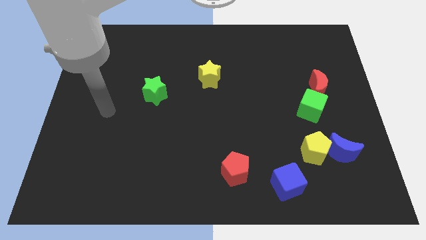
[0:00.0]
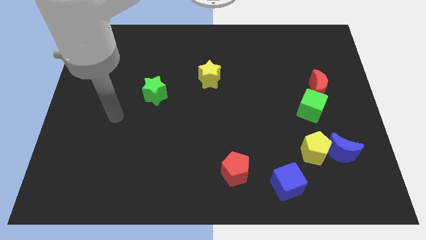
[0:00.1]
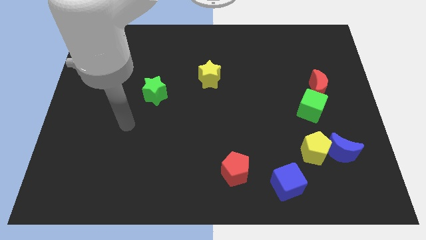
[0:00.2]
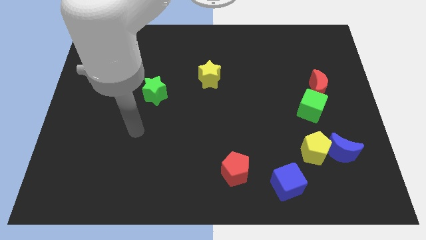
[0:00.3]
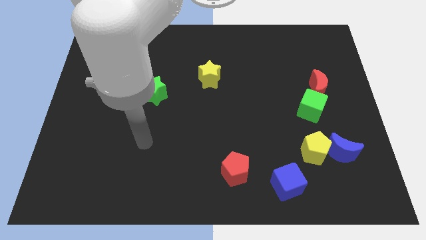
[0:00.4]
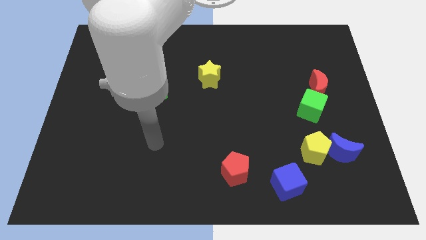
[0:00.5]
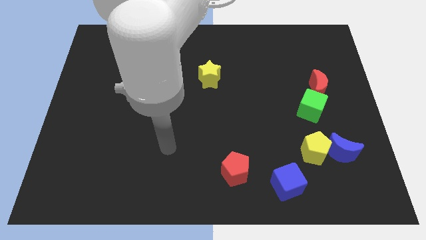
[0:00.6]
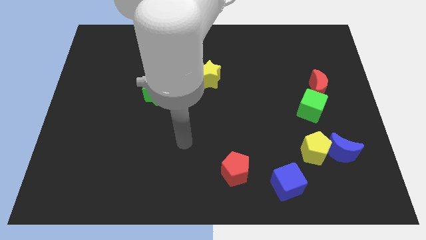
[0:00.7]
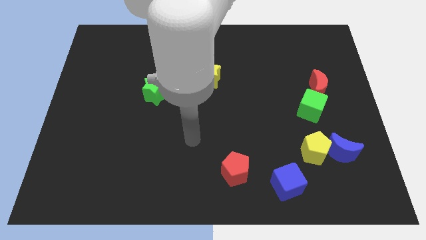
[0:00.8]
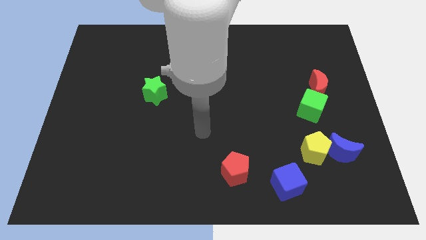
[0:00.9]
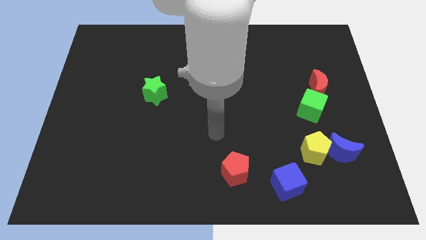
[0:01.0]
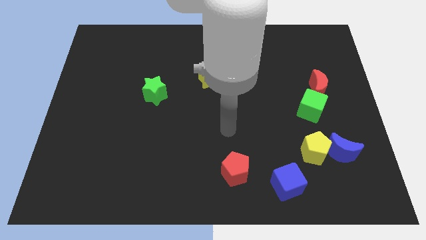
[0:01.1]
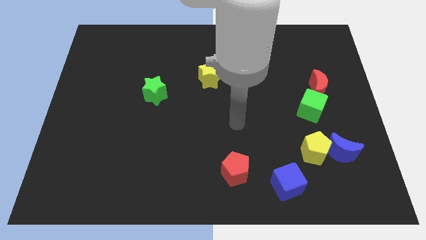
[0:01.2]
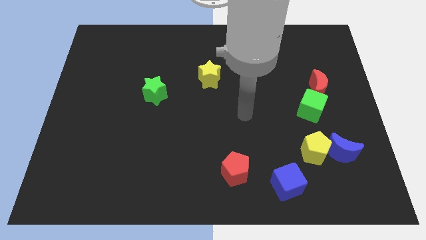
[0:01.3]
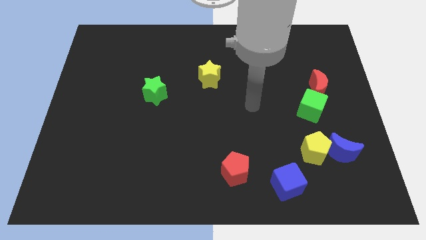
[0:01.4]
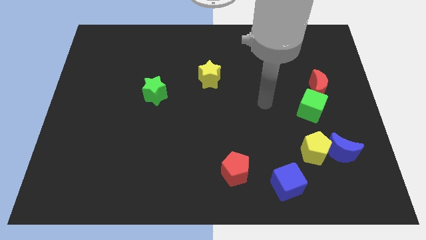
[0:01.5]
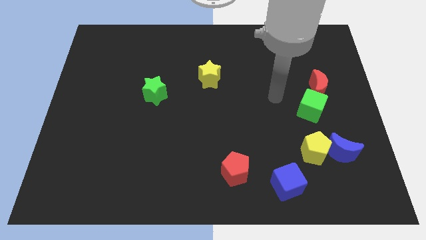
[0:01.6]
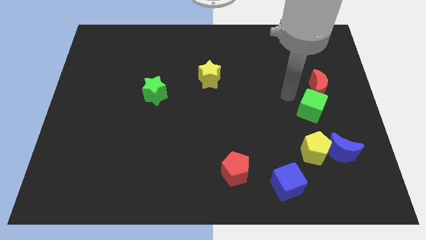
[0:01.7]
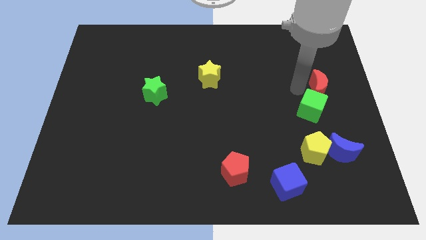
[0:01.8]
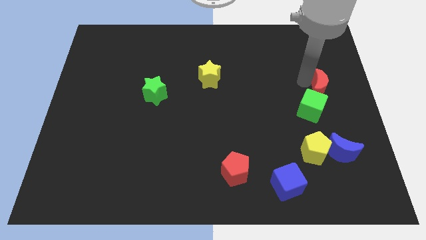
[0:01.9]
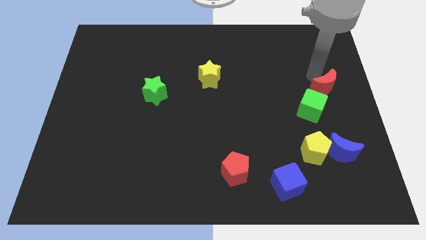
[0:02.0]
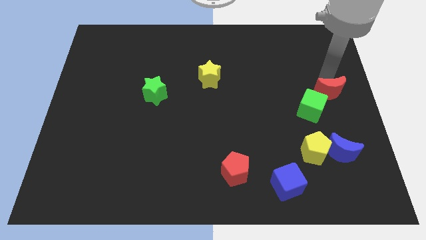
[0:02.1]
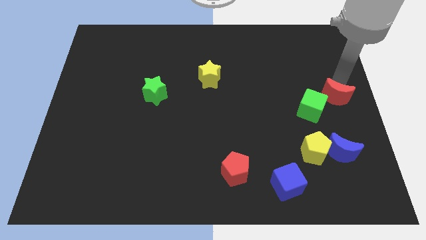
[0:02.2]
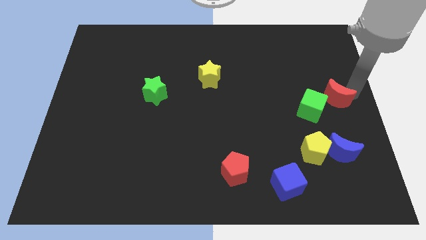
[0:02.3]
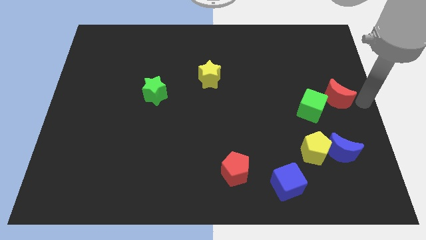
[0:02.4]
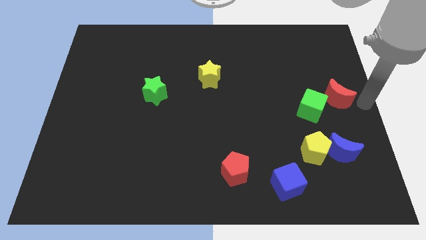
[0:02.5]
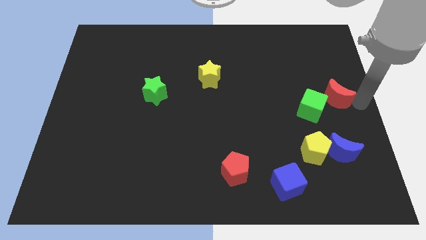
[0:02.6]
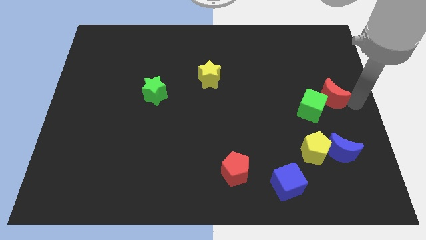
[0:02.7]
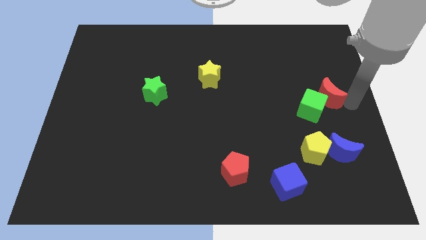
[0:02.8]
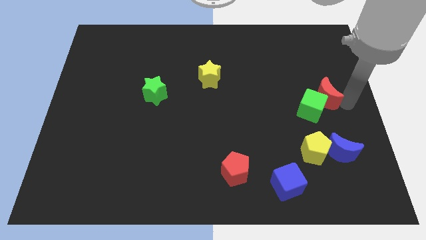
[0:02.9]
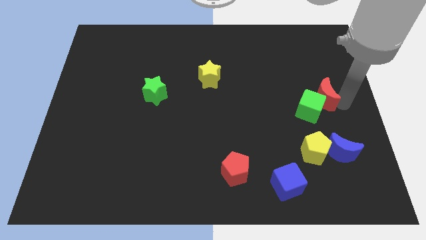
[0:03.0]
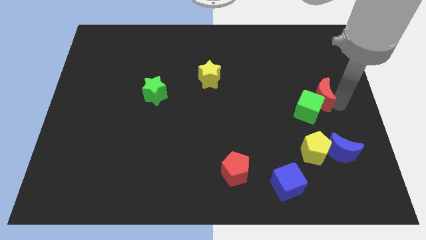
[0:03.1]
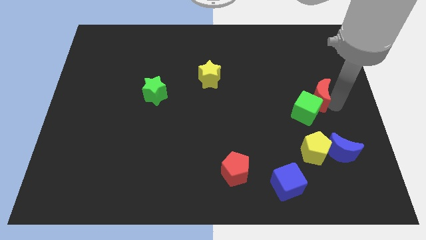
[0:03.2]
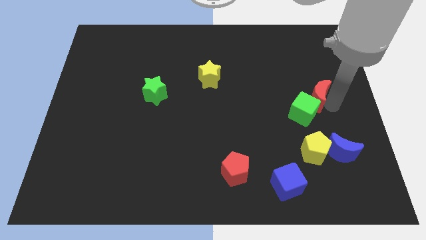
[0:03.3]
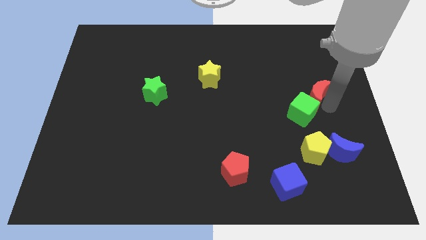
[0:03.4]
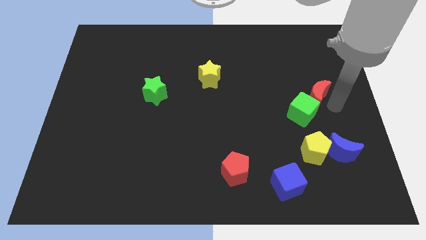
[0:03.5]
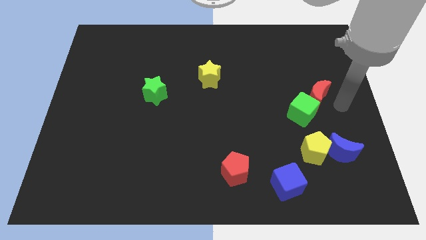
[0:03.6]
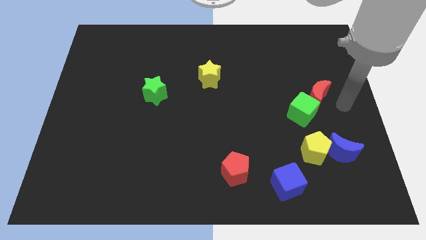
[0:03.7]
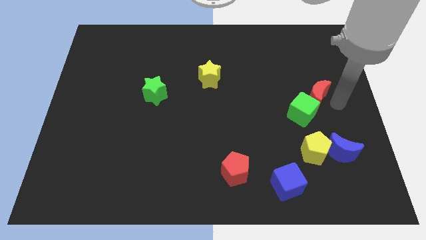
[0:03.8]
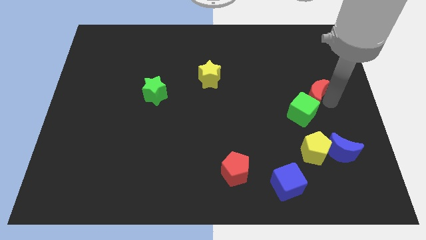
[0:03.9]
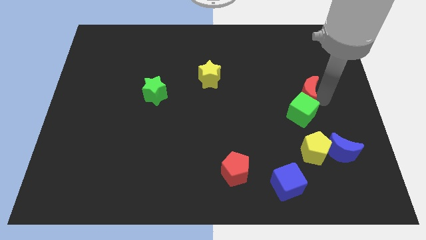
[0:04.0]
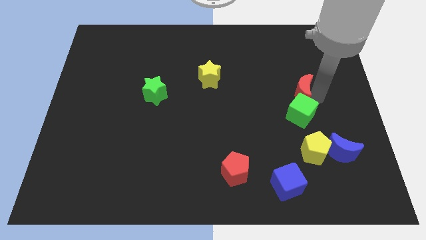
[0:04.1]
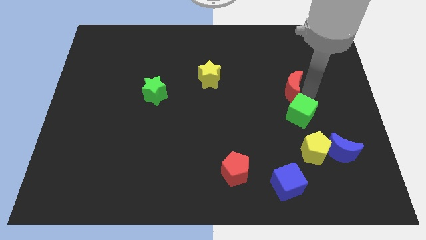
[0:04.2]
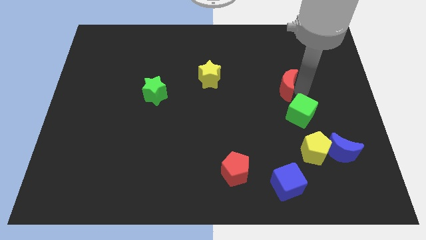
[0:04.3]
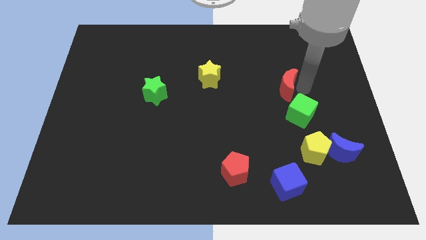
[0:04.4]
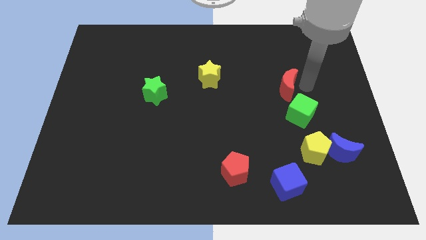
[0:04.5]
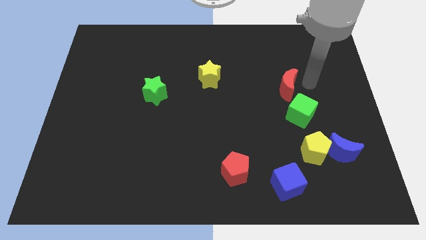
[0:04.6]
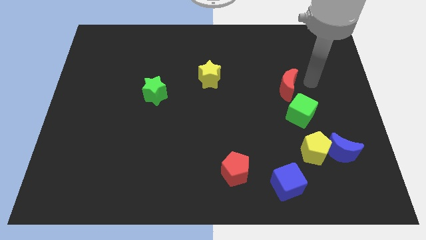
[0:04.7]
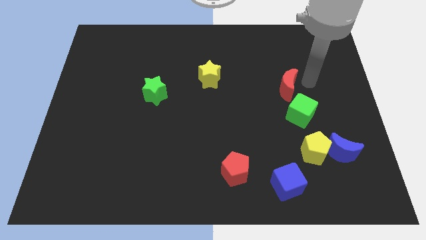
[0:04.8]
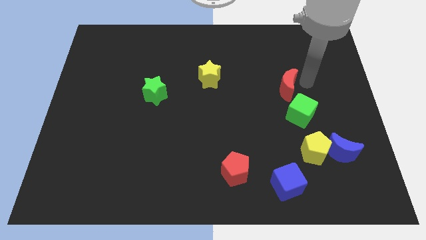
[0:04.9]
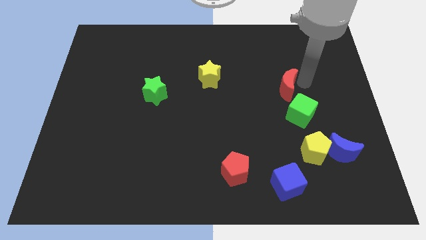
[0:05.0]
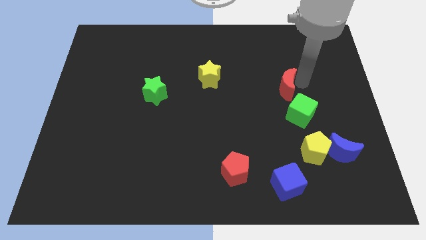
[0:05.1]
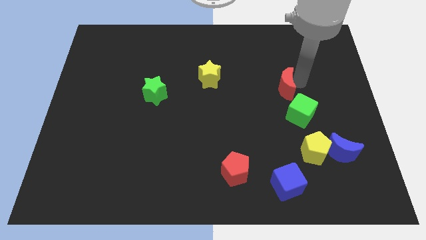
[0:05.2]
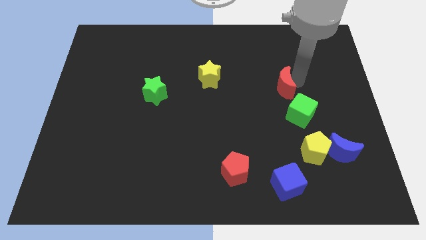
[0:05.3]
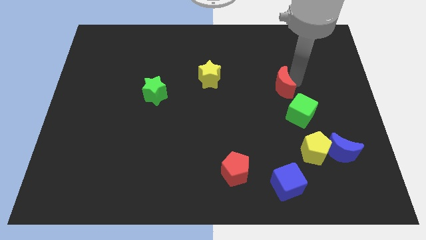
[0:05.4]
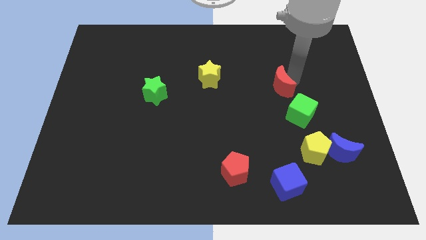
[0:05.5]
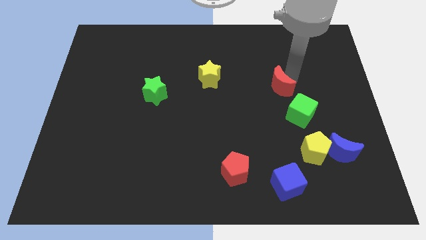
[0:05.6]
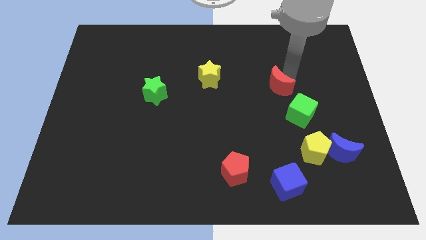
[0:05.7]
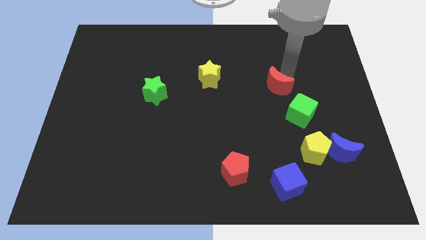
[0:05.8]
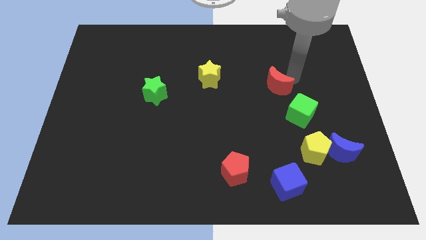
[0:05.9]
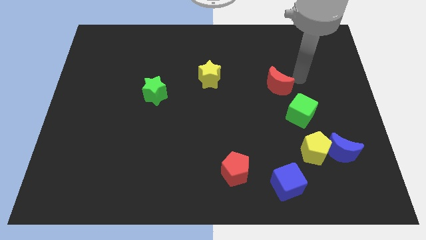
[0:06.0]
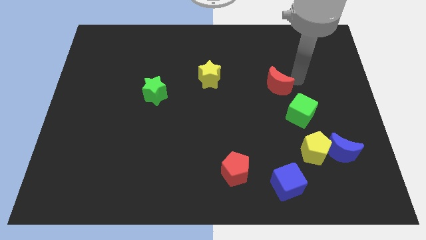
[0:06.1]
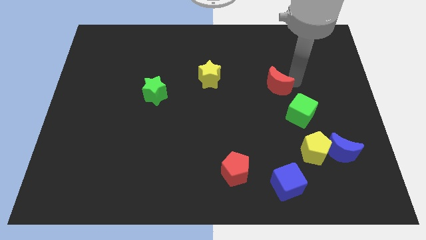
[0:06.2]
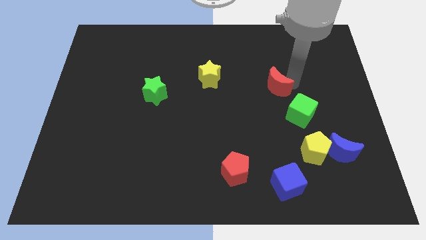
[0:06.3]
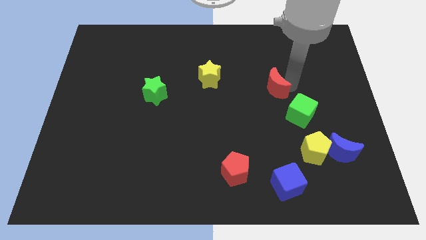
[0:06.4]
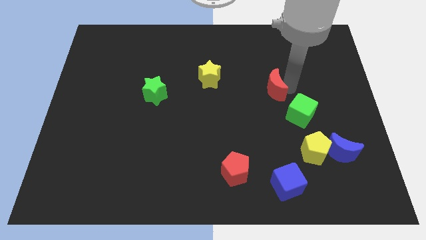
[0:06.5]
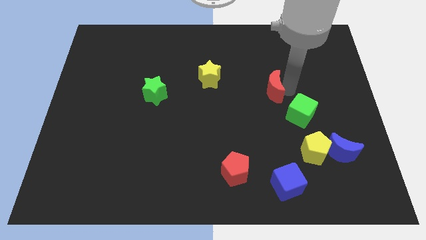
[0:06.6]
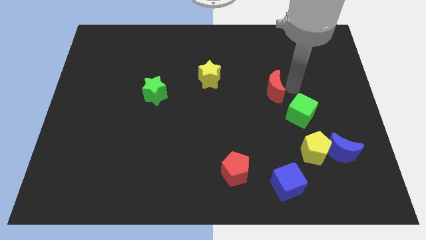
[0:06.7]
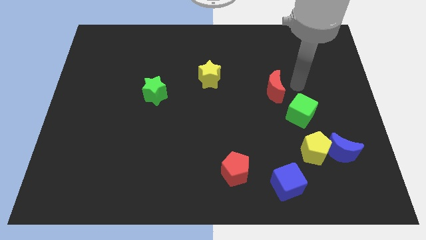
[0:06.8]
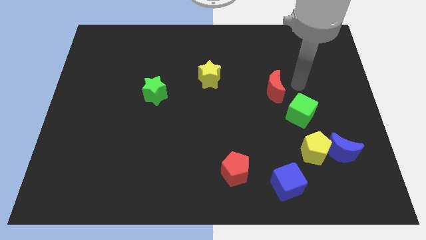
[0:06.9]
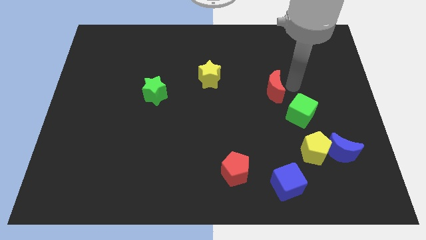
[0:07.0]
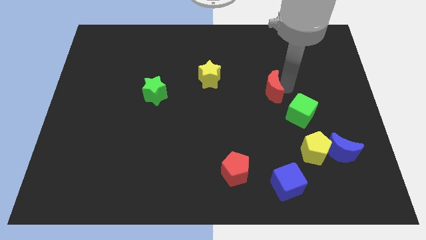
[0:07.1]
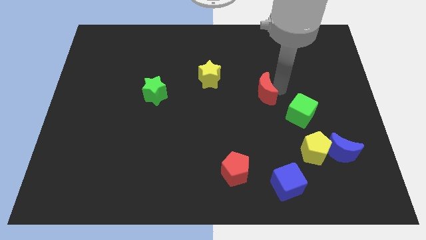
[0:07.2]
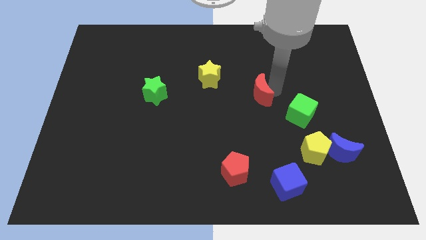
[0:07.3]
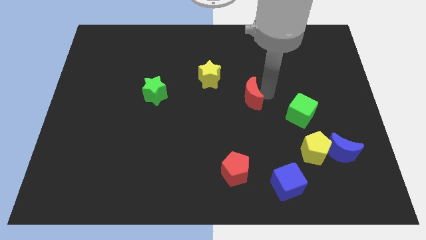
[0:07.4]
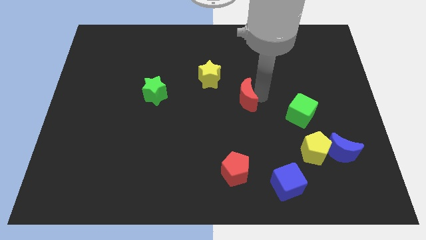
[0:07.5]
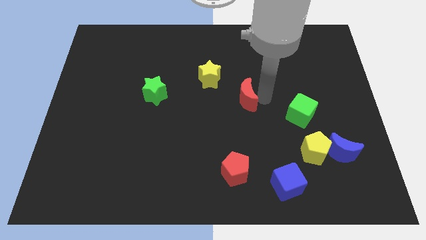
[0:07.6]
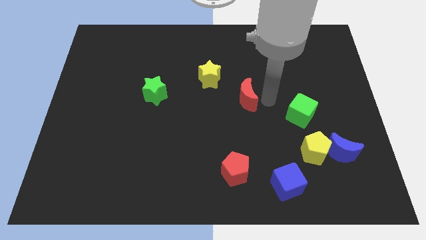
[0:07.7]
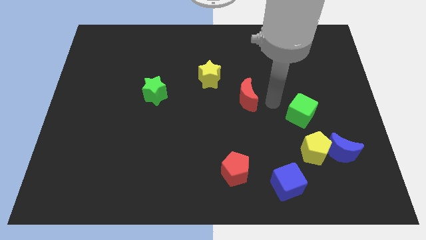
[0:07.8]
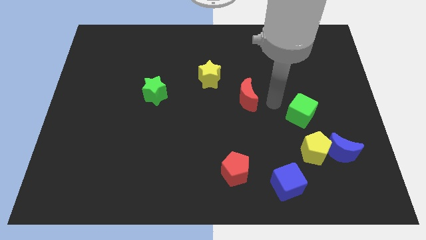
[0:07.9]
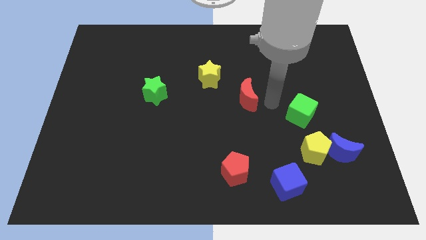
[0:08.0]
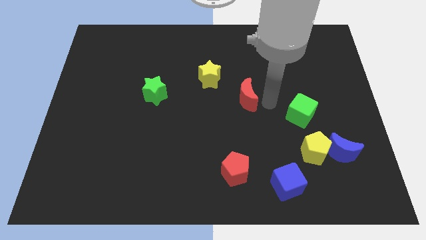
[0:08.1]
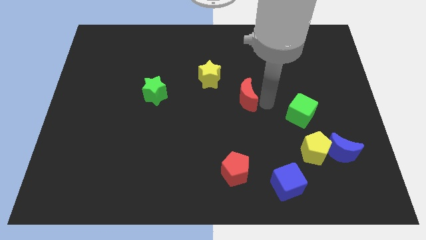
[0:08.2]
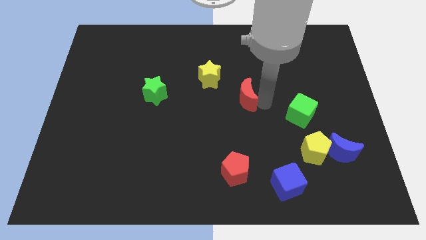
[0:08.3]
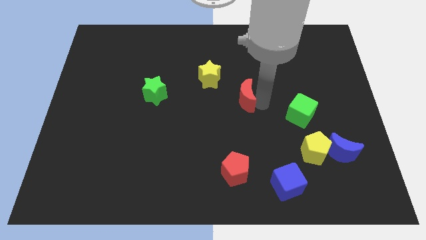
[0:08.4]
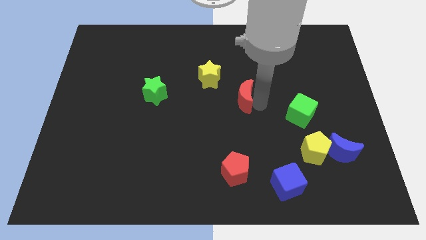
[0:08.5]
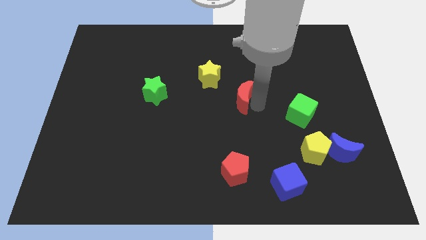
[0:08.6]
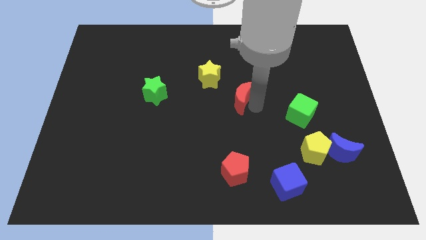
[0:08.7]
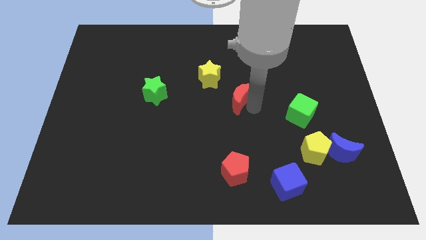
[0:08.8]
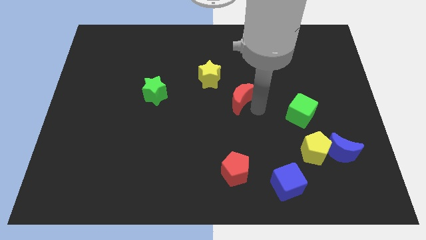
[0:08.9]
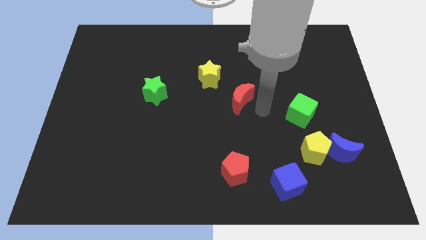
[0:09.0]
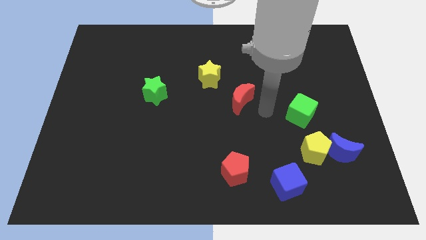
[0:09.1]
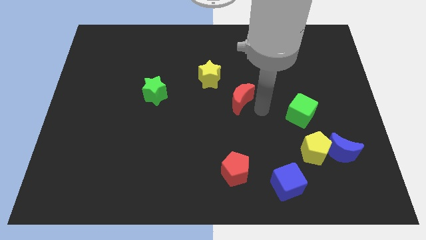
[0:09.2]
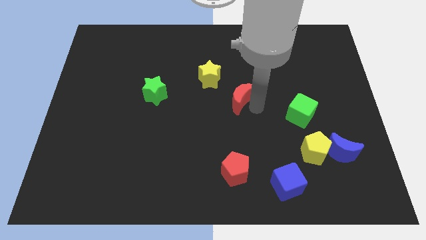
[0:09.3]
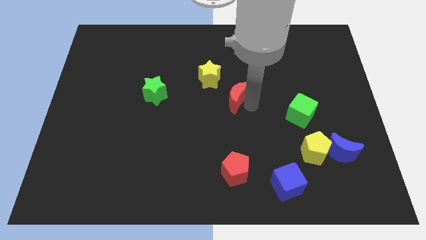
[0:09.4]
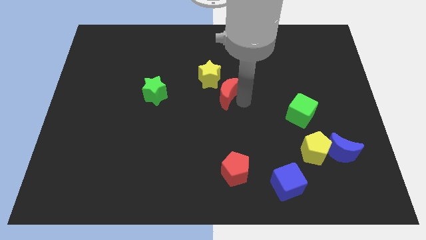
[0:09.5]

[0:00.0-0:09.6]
slide the red moon left
